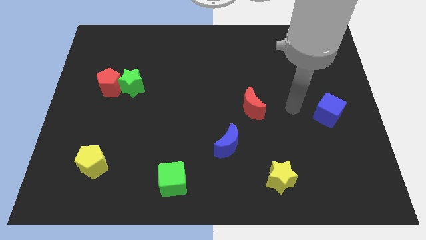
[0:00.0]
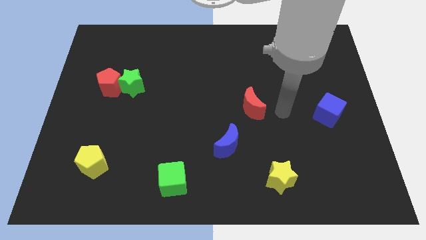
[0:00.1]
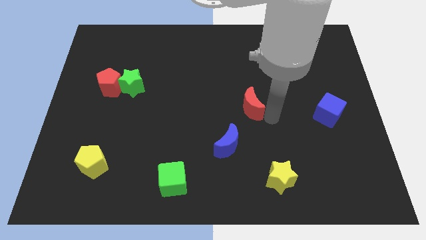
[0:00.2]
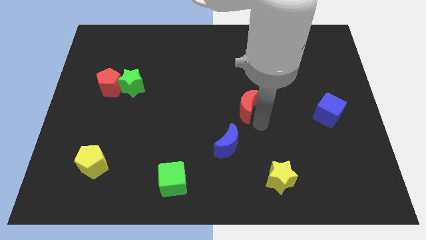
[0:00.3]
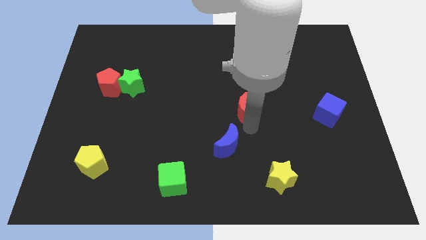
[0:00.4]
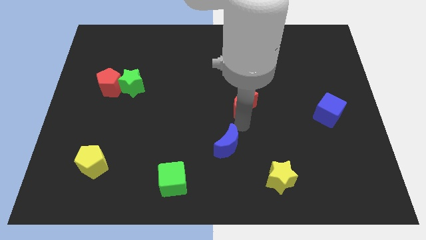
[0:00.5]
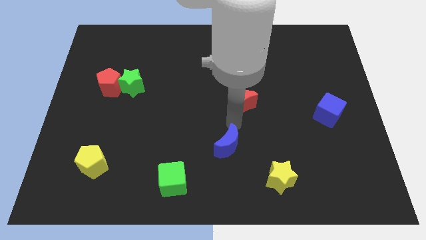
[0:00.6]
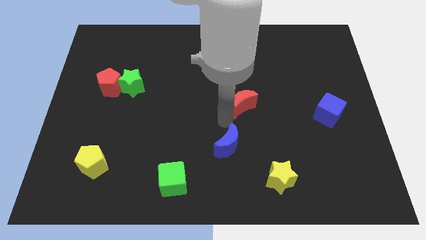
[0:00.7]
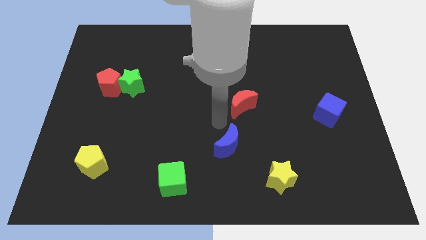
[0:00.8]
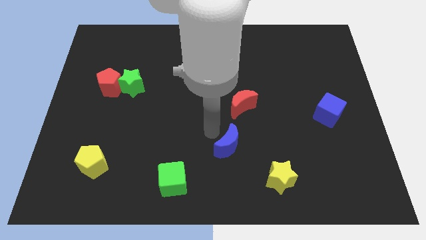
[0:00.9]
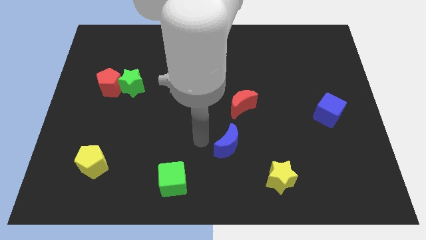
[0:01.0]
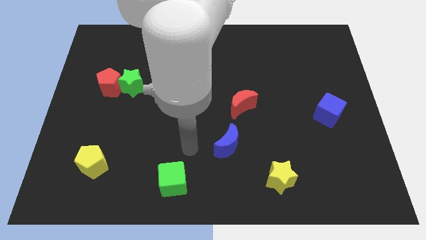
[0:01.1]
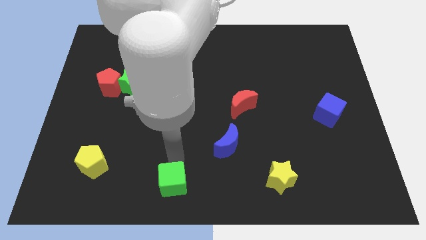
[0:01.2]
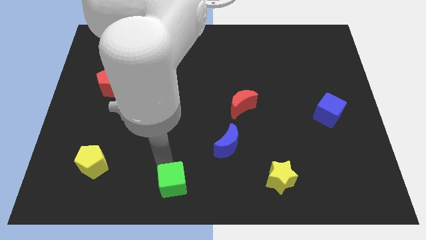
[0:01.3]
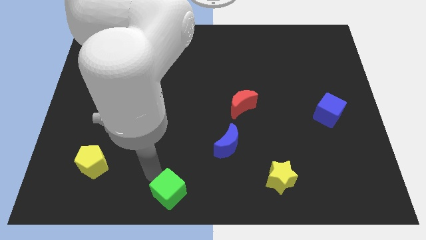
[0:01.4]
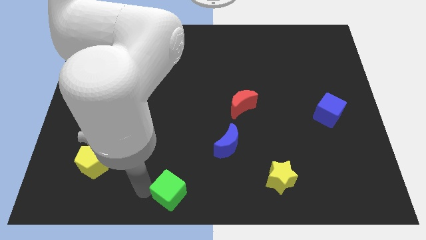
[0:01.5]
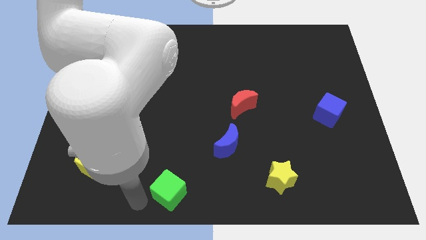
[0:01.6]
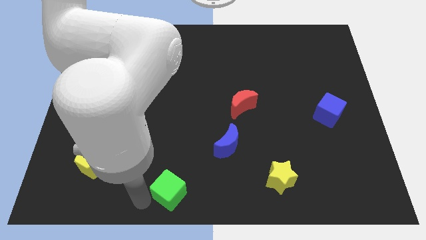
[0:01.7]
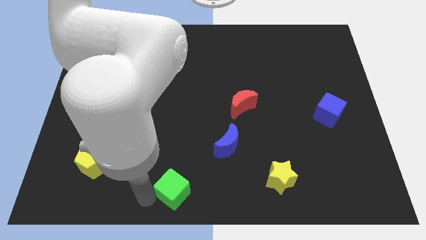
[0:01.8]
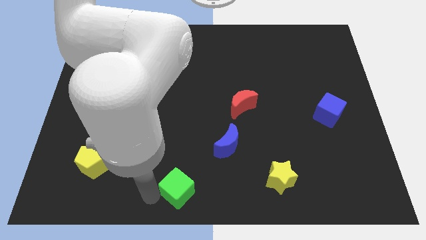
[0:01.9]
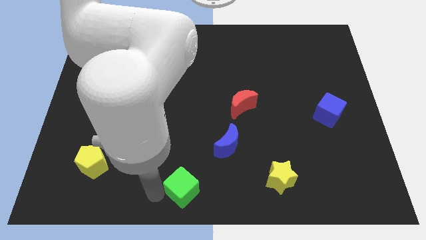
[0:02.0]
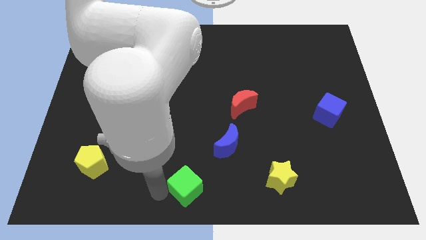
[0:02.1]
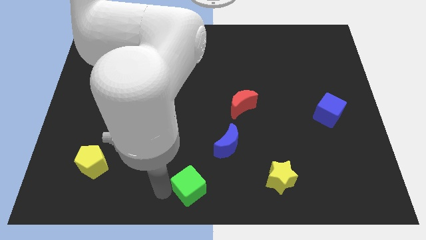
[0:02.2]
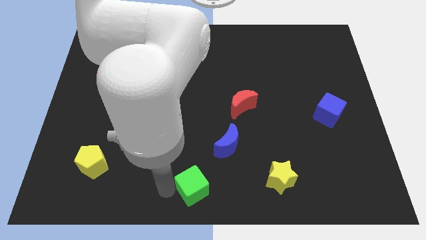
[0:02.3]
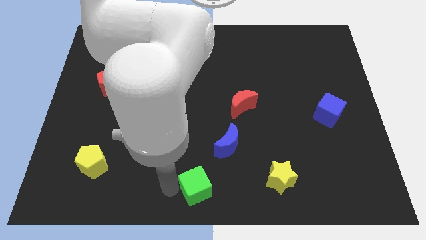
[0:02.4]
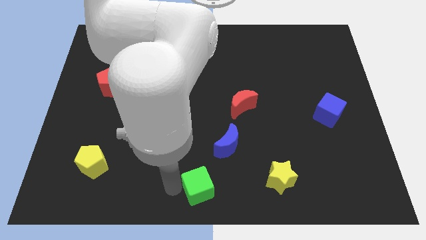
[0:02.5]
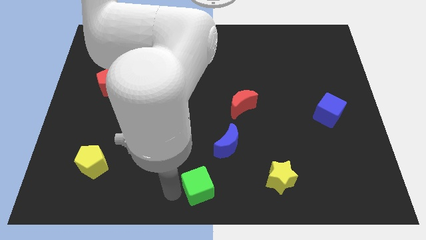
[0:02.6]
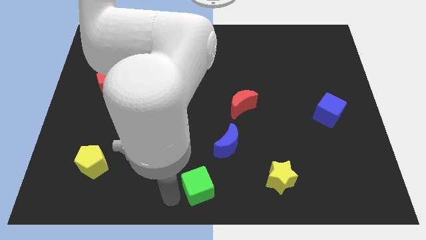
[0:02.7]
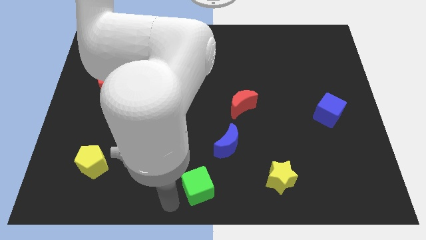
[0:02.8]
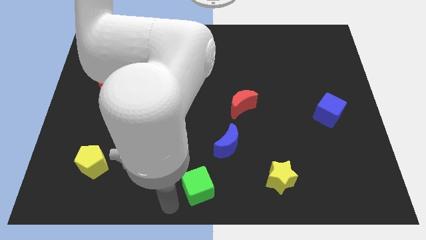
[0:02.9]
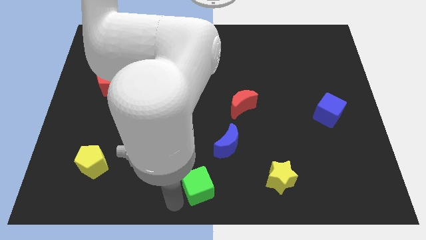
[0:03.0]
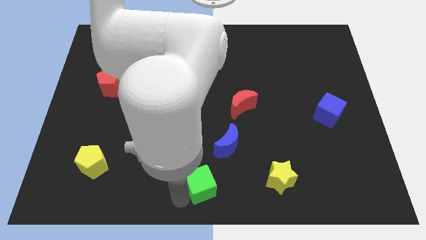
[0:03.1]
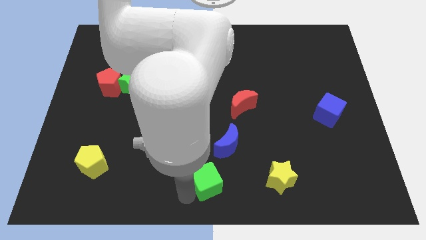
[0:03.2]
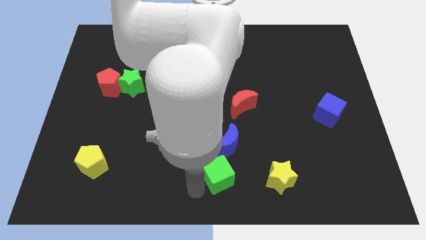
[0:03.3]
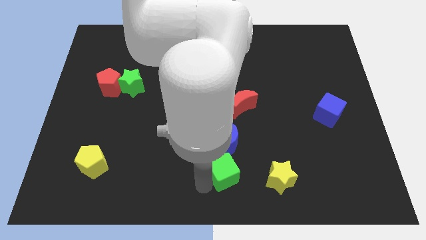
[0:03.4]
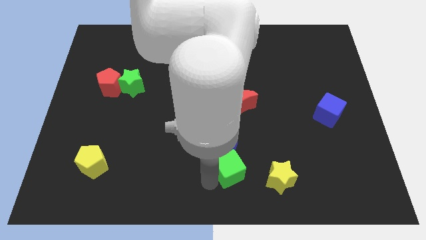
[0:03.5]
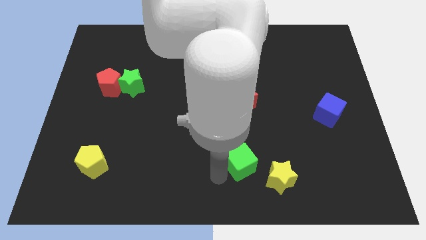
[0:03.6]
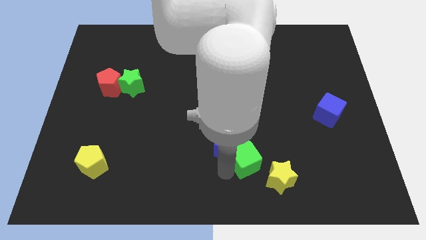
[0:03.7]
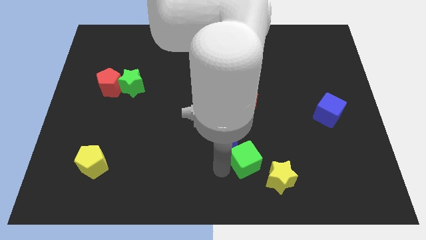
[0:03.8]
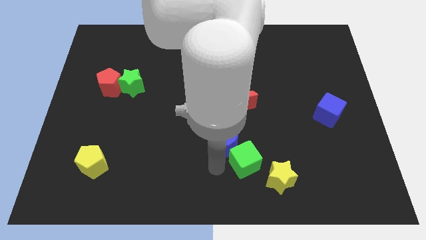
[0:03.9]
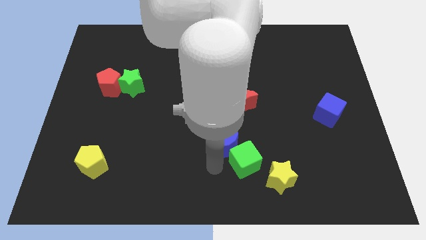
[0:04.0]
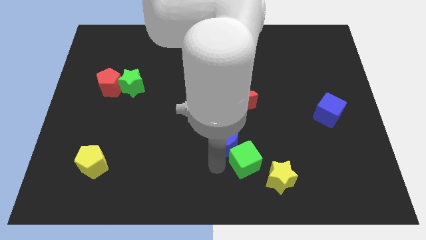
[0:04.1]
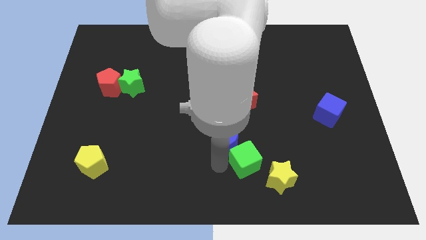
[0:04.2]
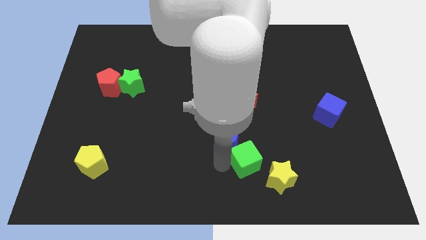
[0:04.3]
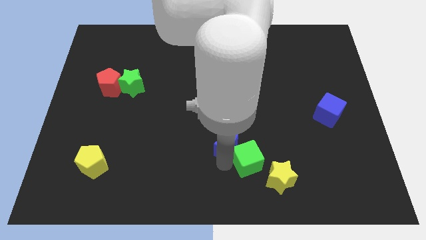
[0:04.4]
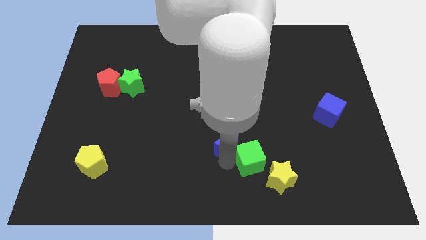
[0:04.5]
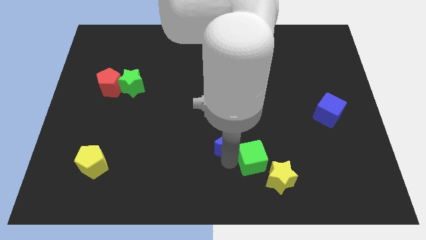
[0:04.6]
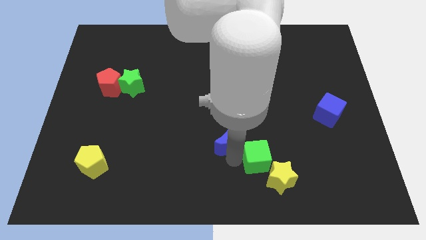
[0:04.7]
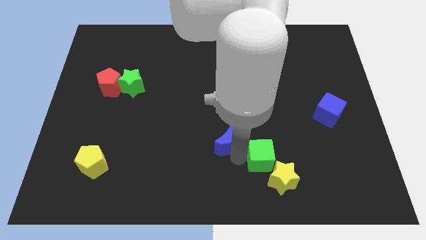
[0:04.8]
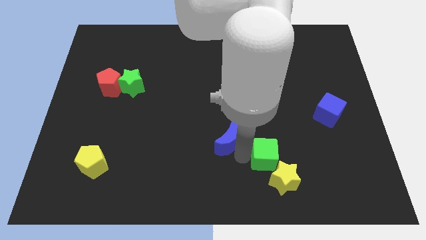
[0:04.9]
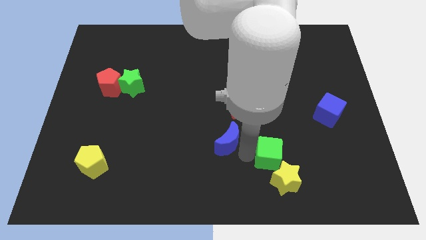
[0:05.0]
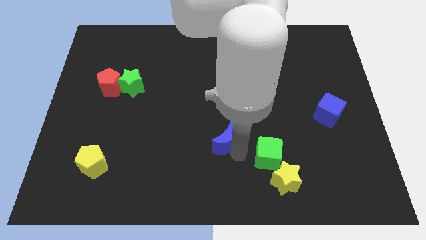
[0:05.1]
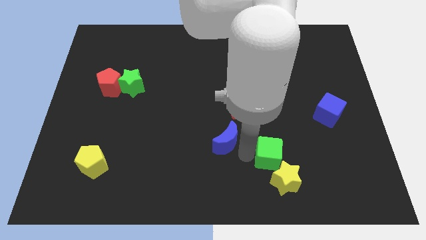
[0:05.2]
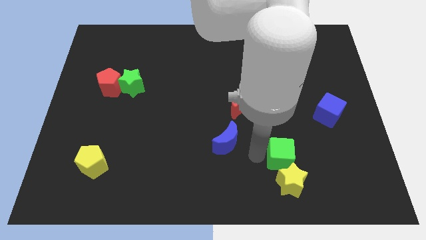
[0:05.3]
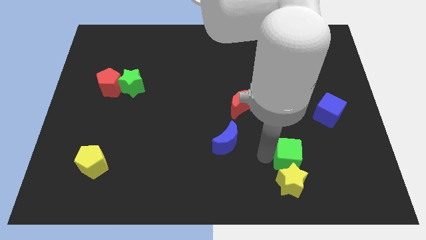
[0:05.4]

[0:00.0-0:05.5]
move the green cube diagonally up and to the right of the yellow star

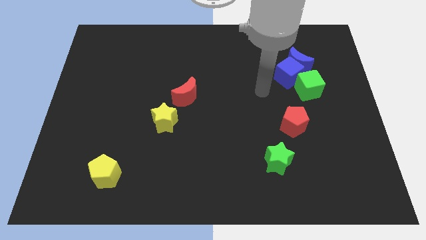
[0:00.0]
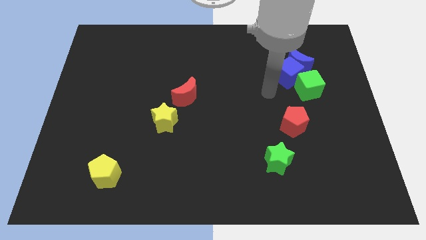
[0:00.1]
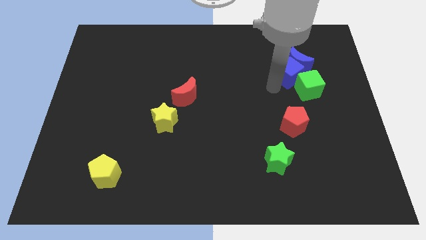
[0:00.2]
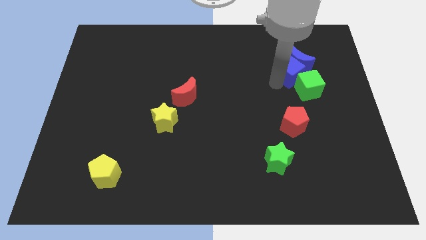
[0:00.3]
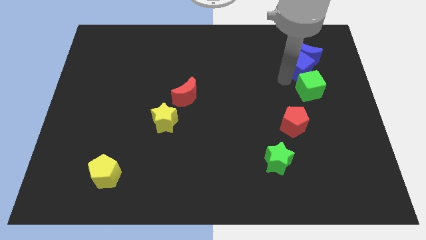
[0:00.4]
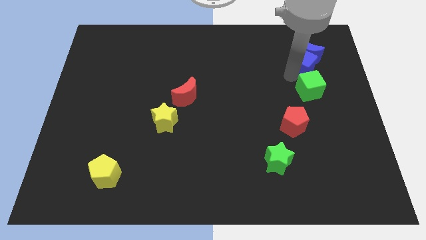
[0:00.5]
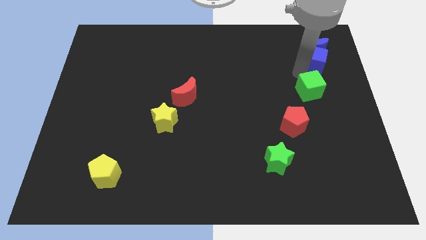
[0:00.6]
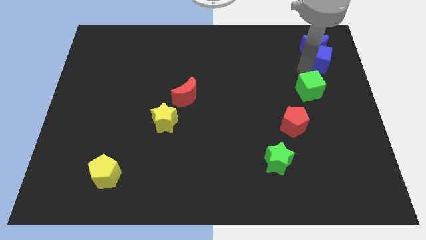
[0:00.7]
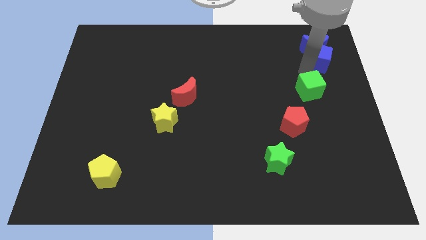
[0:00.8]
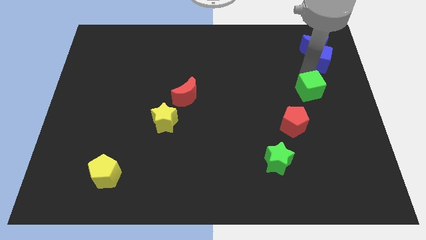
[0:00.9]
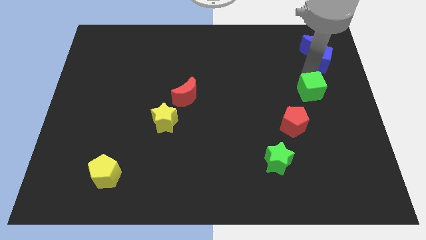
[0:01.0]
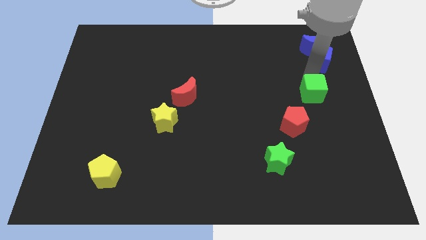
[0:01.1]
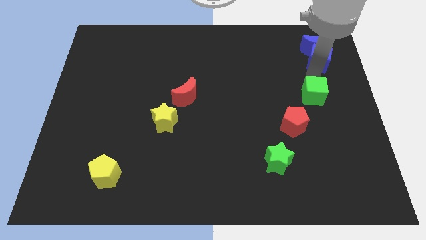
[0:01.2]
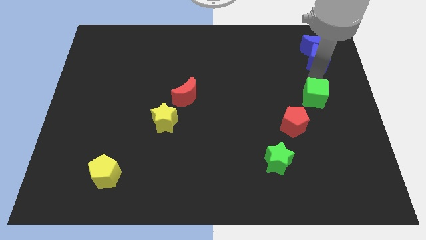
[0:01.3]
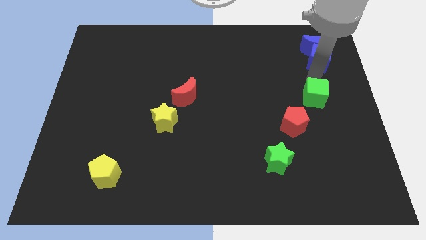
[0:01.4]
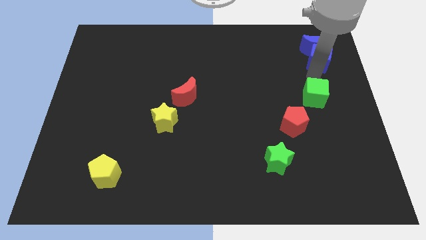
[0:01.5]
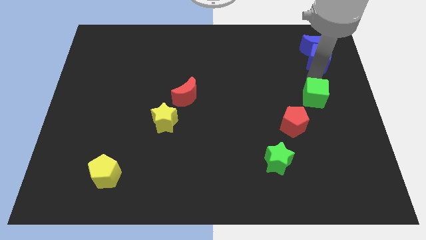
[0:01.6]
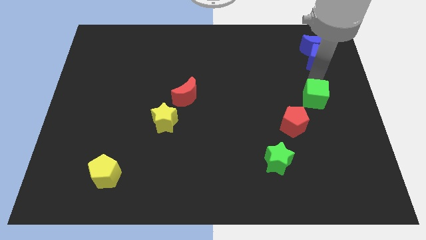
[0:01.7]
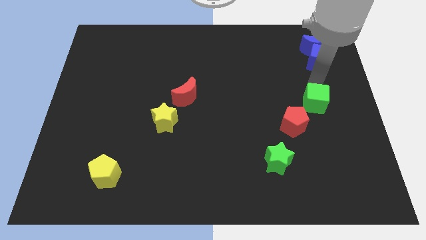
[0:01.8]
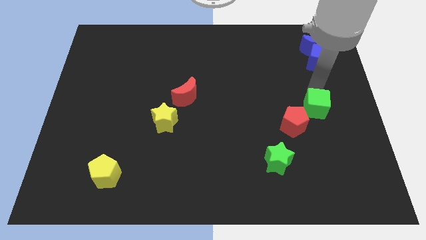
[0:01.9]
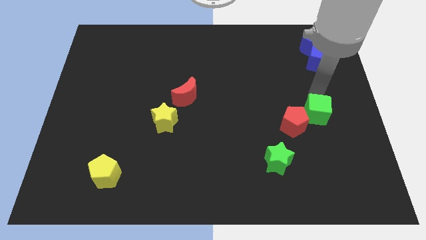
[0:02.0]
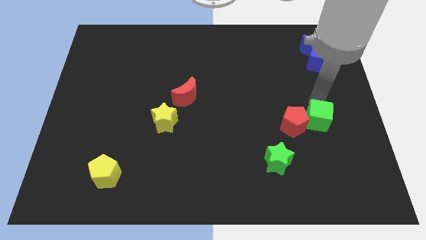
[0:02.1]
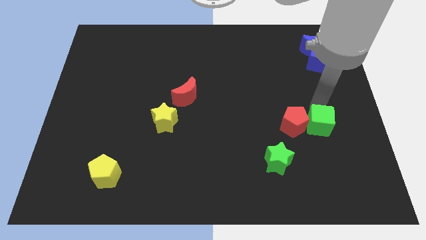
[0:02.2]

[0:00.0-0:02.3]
slide the green cube to the bottom right of the red pentagon
